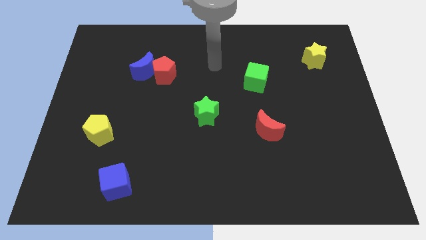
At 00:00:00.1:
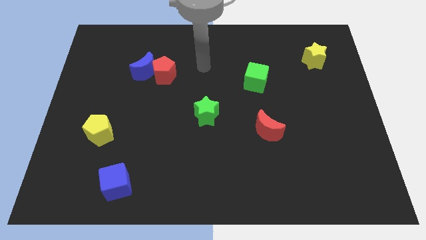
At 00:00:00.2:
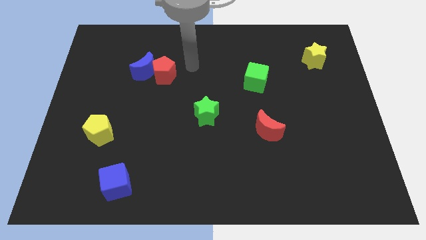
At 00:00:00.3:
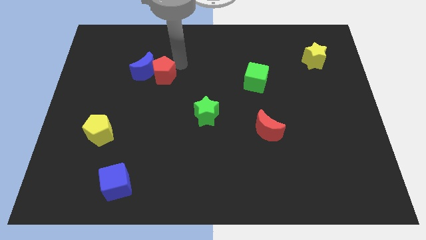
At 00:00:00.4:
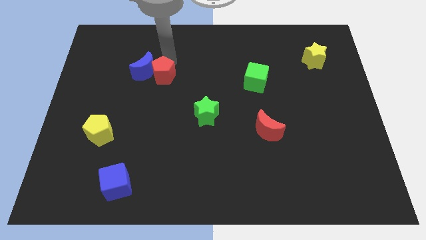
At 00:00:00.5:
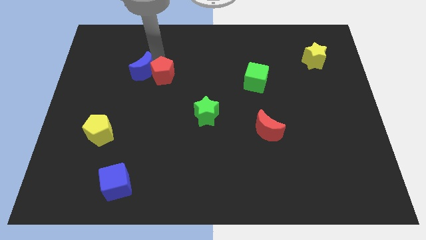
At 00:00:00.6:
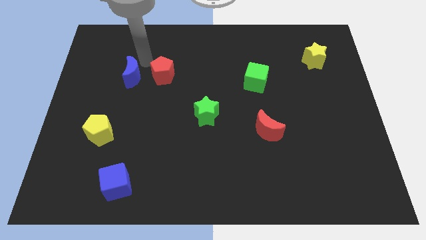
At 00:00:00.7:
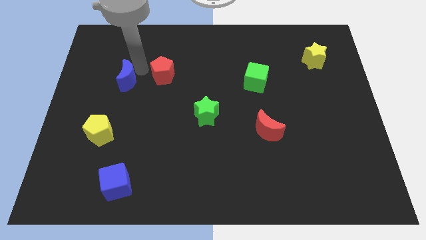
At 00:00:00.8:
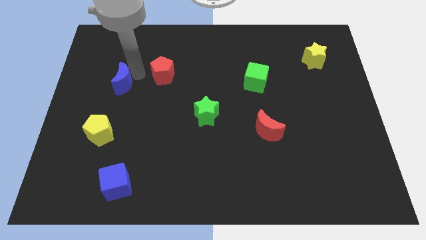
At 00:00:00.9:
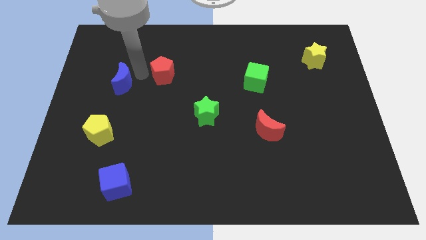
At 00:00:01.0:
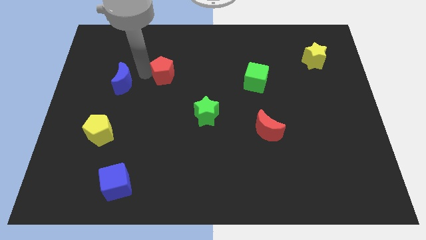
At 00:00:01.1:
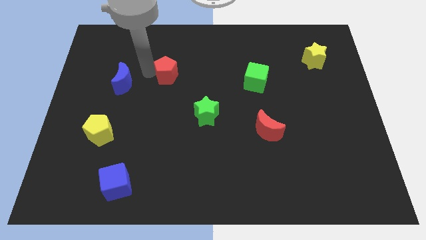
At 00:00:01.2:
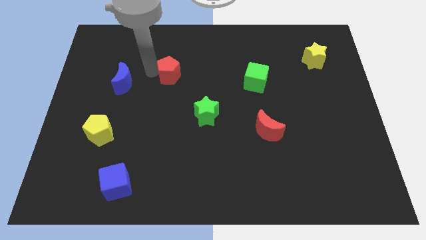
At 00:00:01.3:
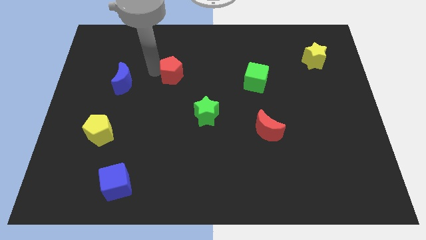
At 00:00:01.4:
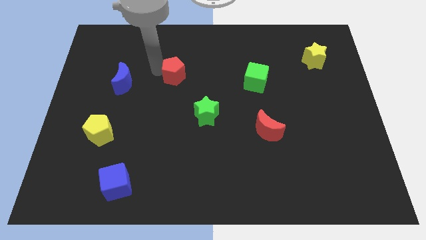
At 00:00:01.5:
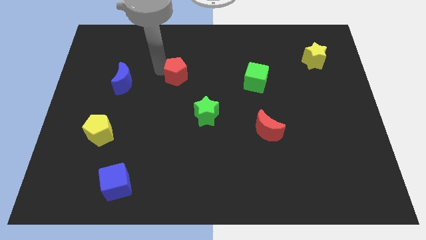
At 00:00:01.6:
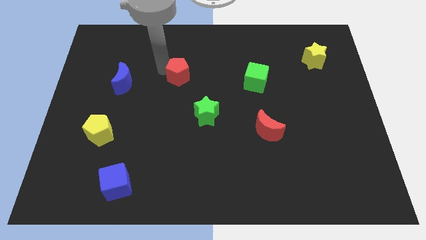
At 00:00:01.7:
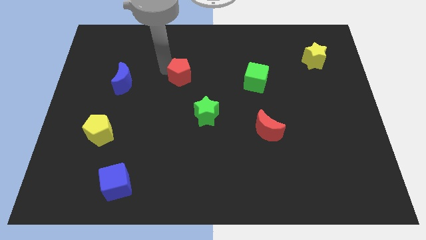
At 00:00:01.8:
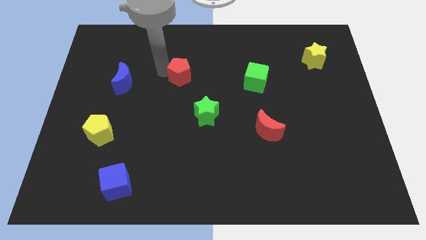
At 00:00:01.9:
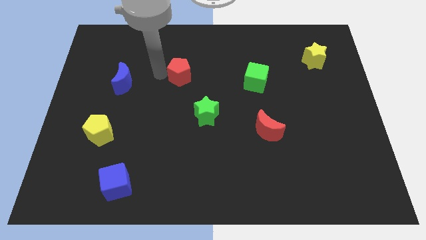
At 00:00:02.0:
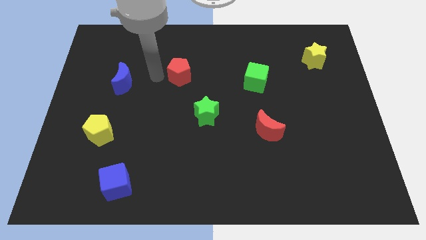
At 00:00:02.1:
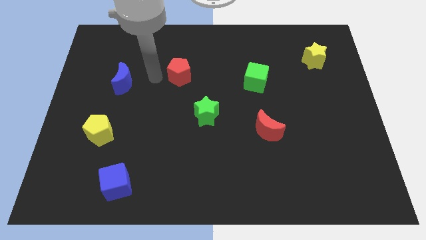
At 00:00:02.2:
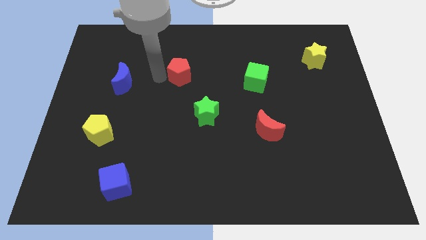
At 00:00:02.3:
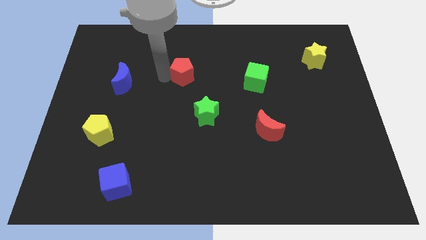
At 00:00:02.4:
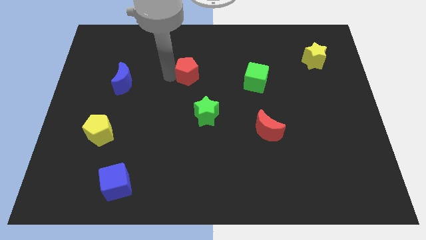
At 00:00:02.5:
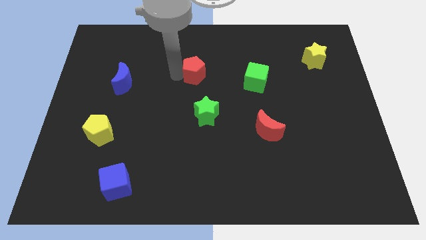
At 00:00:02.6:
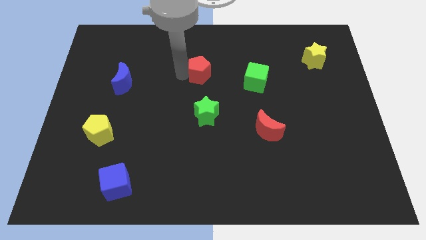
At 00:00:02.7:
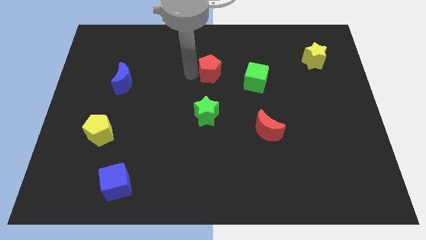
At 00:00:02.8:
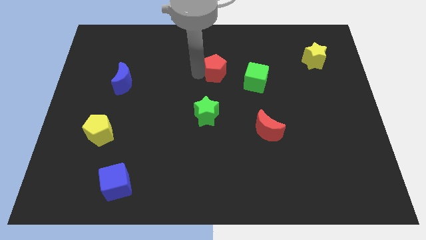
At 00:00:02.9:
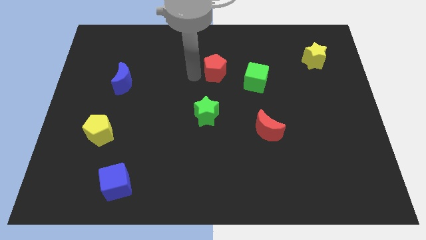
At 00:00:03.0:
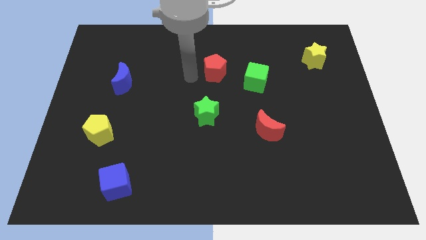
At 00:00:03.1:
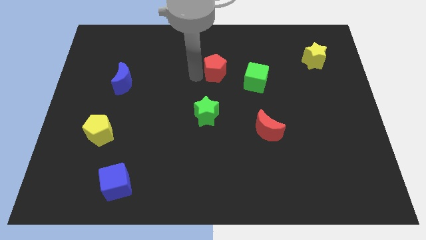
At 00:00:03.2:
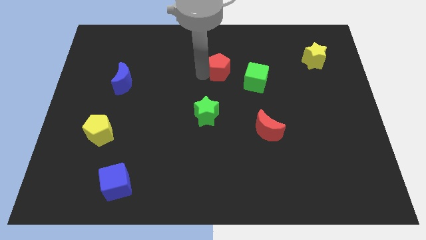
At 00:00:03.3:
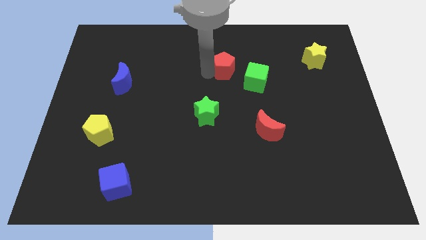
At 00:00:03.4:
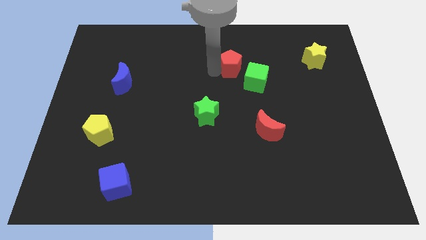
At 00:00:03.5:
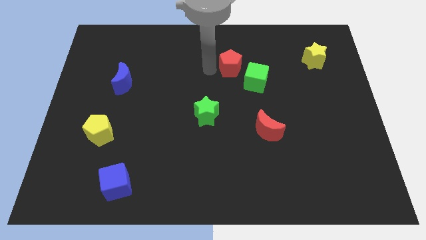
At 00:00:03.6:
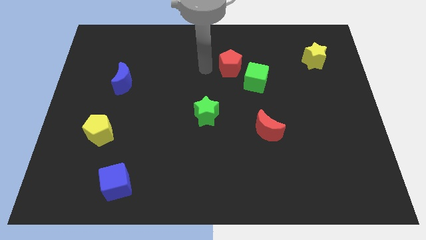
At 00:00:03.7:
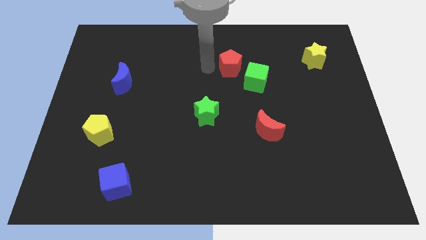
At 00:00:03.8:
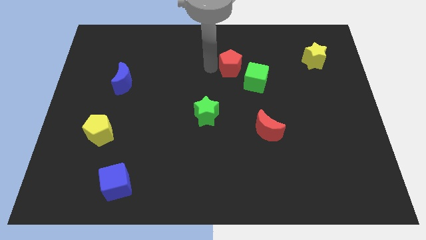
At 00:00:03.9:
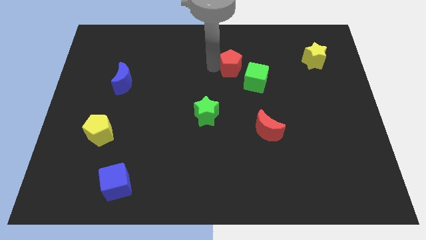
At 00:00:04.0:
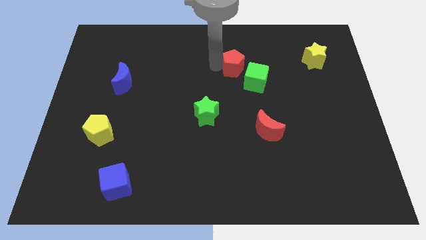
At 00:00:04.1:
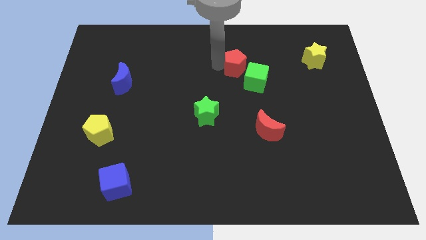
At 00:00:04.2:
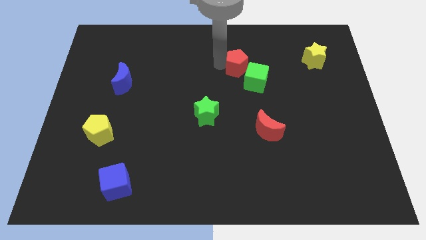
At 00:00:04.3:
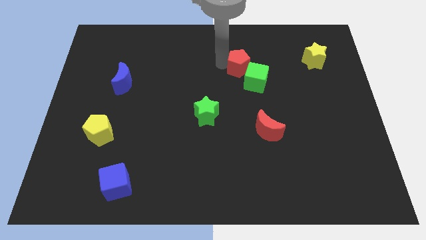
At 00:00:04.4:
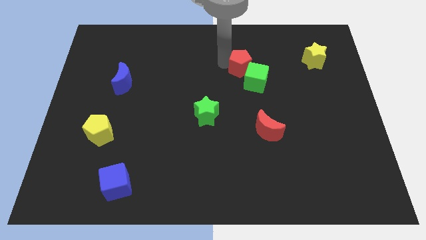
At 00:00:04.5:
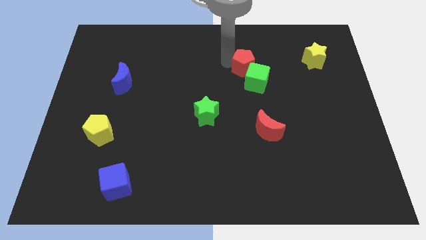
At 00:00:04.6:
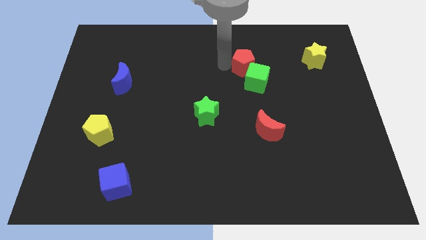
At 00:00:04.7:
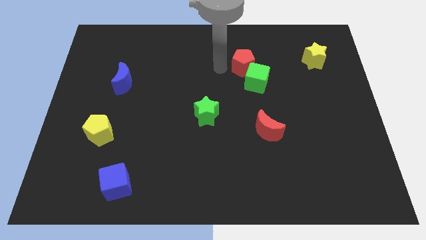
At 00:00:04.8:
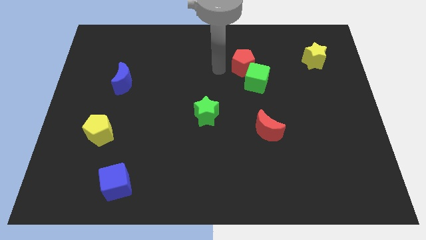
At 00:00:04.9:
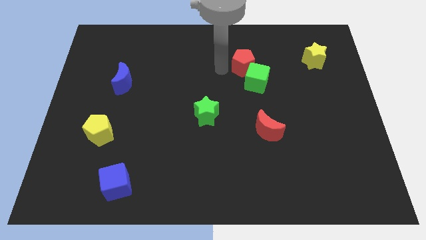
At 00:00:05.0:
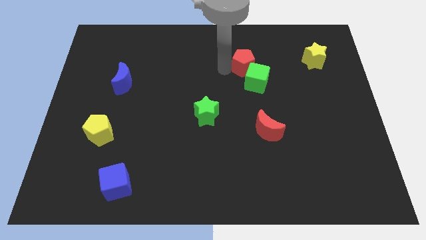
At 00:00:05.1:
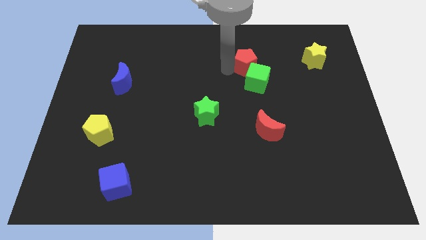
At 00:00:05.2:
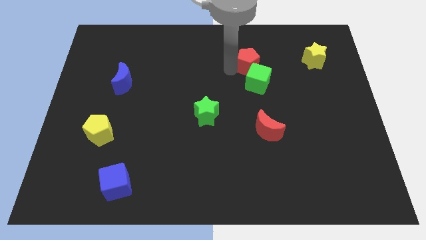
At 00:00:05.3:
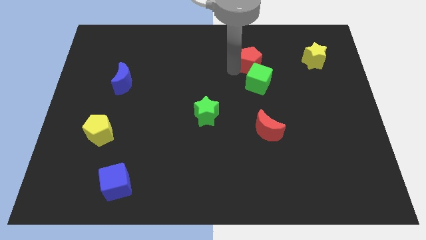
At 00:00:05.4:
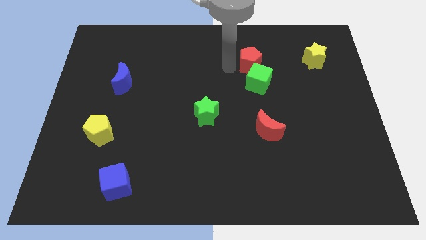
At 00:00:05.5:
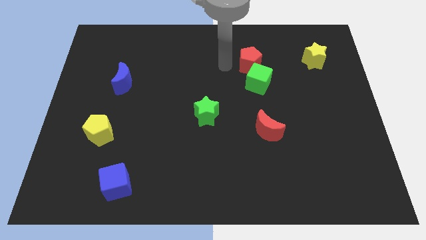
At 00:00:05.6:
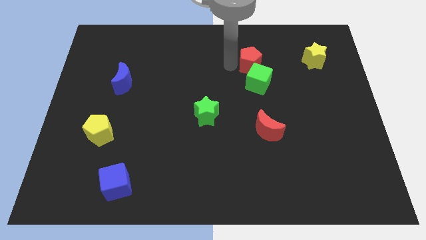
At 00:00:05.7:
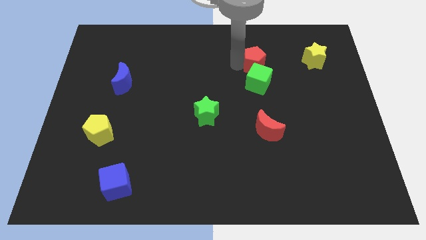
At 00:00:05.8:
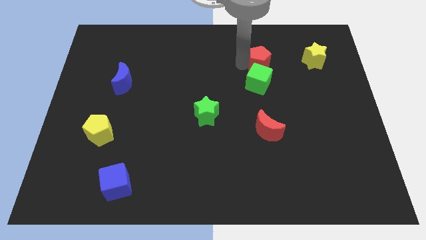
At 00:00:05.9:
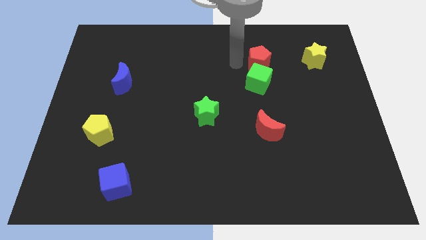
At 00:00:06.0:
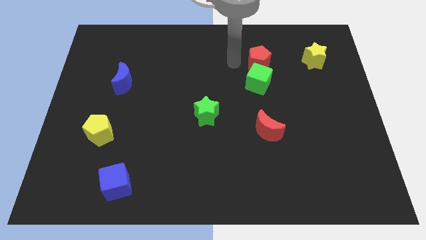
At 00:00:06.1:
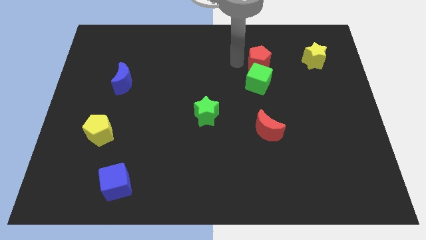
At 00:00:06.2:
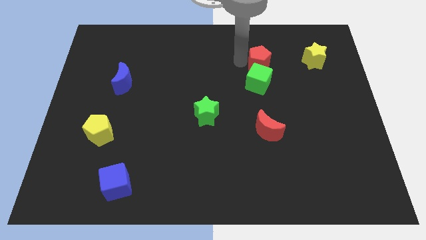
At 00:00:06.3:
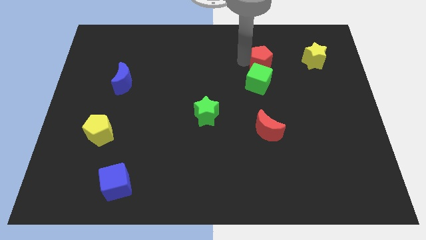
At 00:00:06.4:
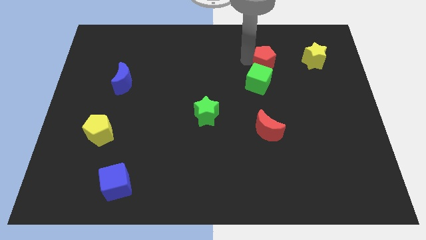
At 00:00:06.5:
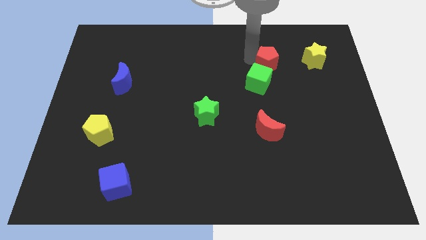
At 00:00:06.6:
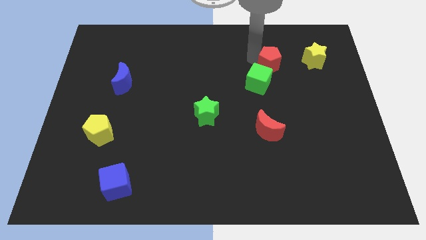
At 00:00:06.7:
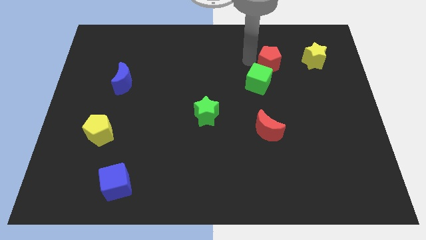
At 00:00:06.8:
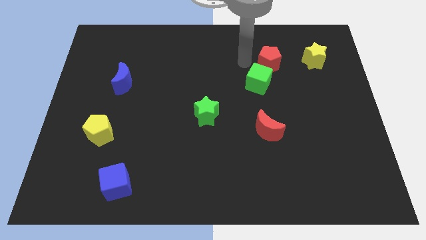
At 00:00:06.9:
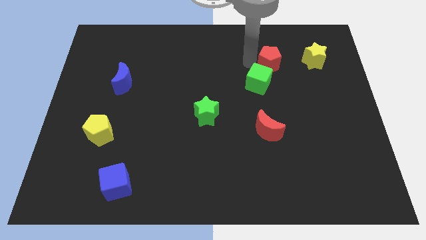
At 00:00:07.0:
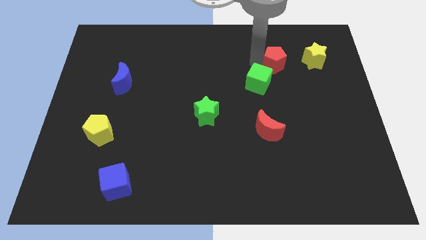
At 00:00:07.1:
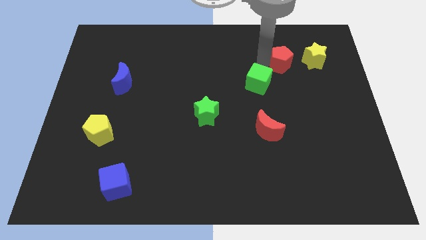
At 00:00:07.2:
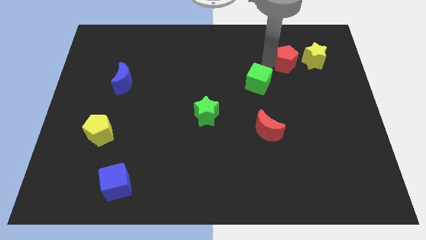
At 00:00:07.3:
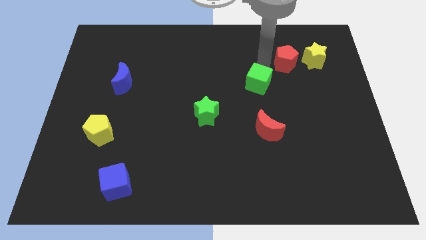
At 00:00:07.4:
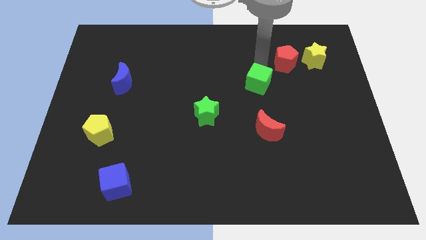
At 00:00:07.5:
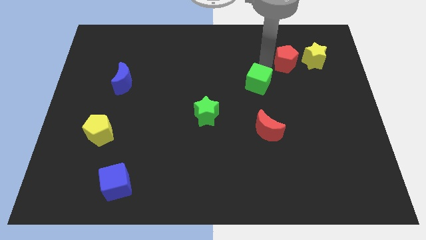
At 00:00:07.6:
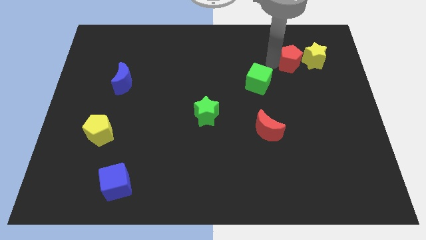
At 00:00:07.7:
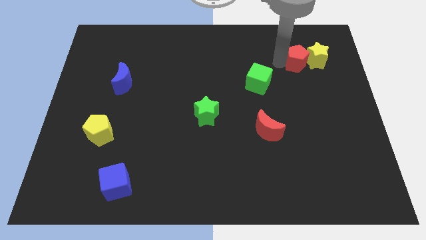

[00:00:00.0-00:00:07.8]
slide the red pentagon next to the yellow star

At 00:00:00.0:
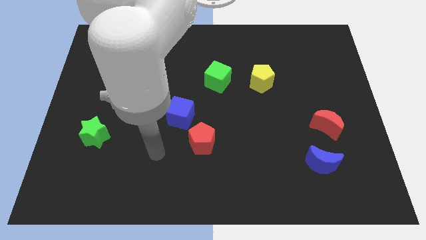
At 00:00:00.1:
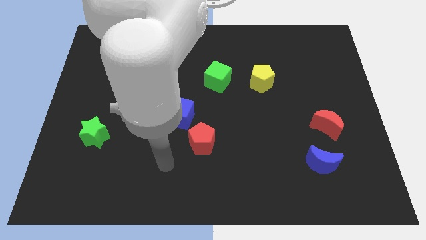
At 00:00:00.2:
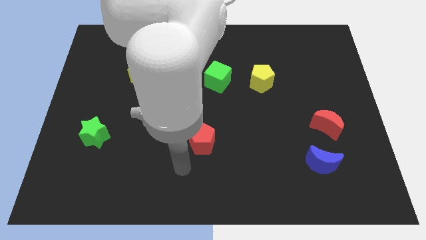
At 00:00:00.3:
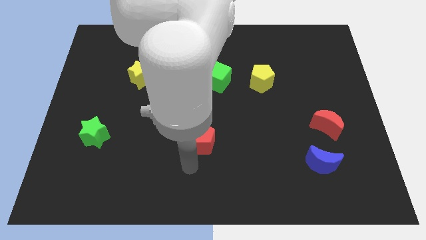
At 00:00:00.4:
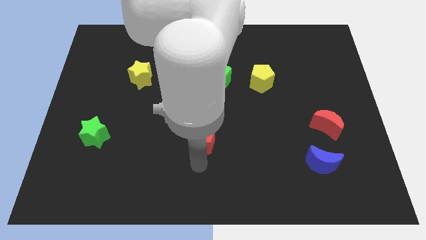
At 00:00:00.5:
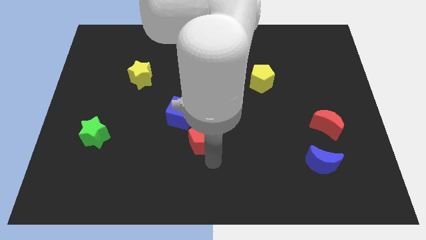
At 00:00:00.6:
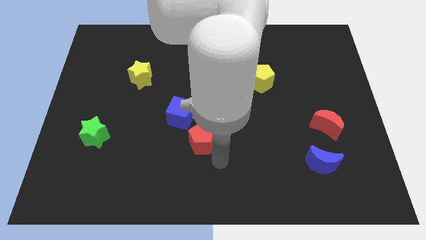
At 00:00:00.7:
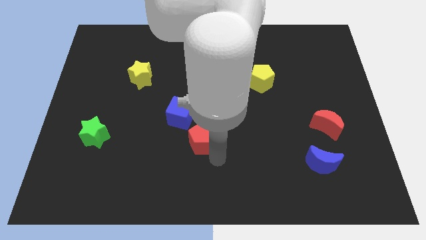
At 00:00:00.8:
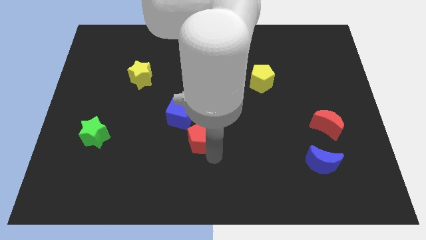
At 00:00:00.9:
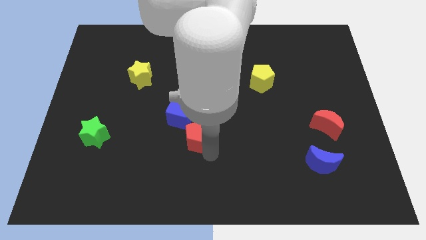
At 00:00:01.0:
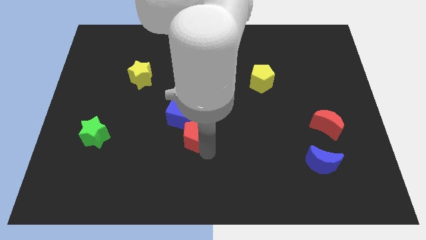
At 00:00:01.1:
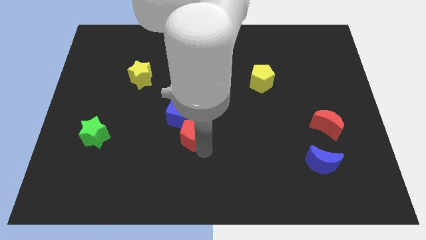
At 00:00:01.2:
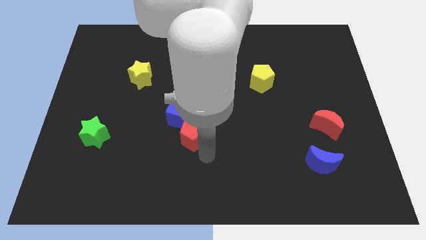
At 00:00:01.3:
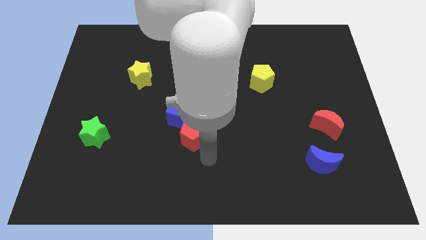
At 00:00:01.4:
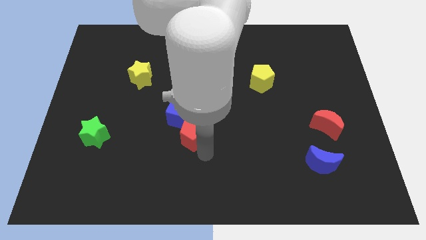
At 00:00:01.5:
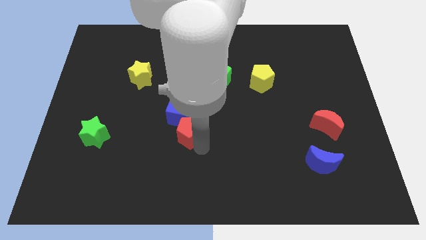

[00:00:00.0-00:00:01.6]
slide the red pentagon next to the blue cube
